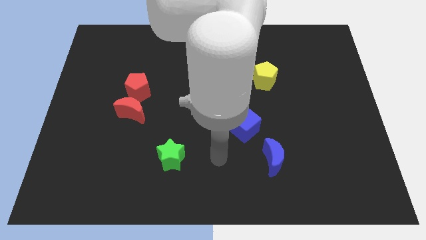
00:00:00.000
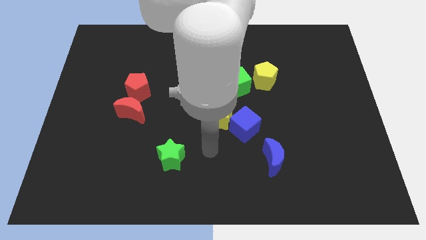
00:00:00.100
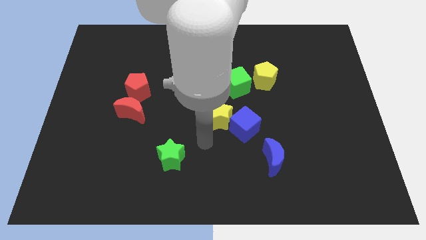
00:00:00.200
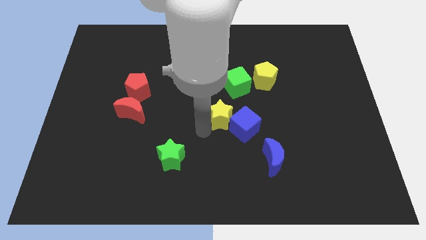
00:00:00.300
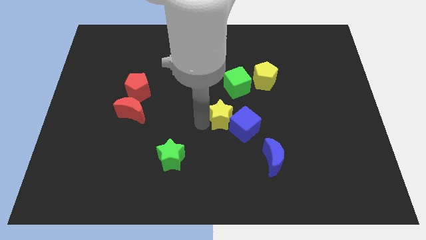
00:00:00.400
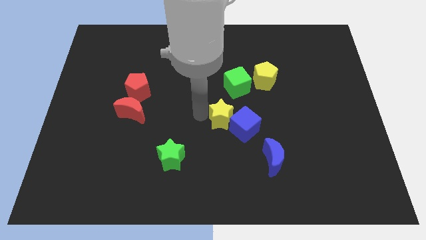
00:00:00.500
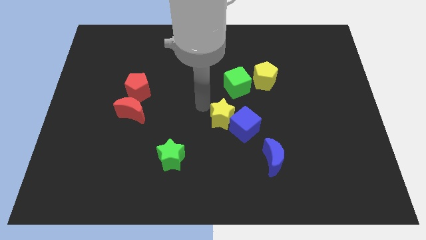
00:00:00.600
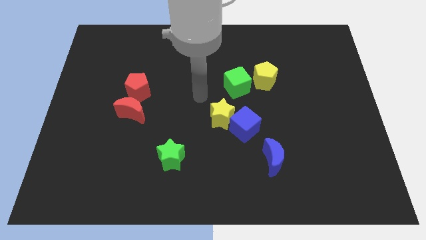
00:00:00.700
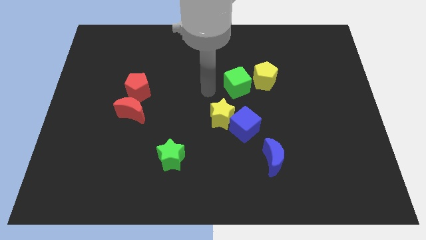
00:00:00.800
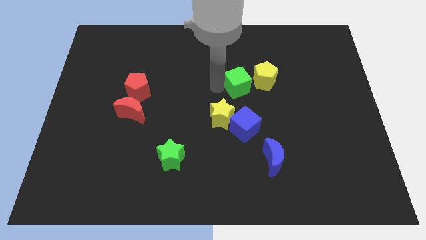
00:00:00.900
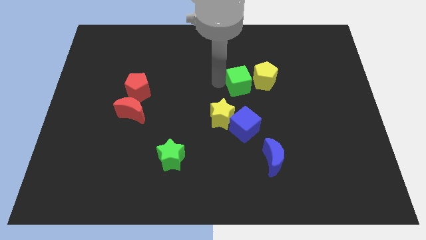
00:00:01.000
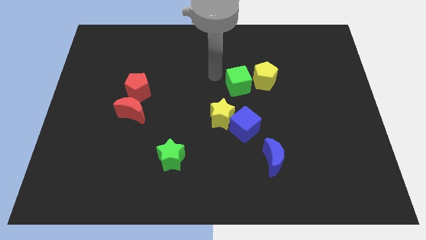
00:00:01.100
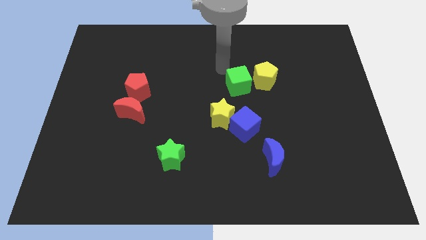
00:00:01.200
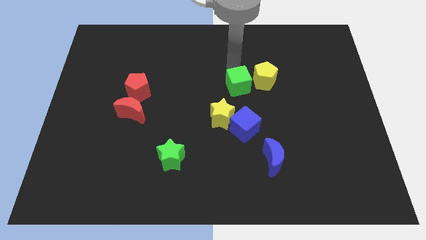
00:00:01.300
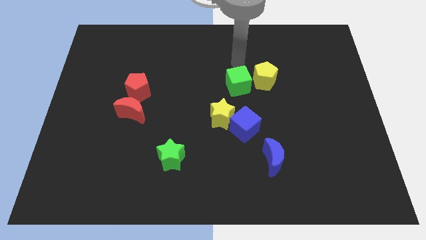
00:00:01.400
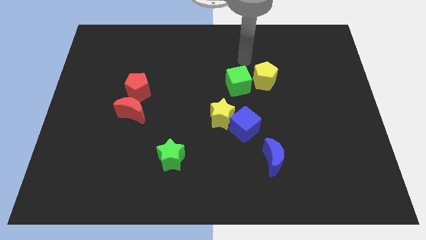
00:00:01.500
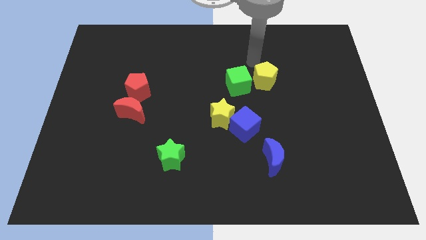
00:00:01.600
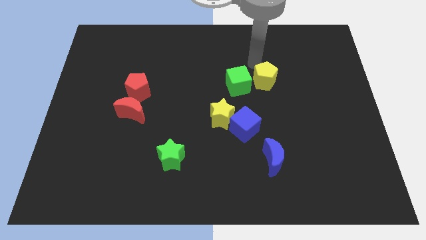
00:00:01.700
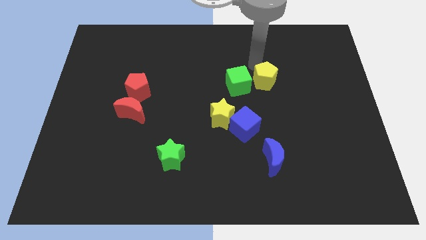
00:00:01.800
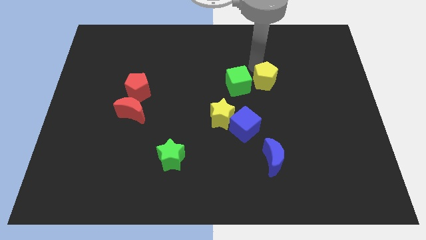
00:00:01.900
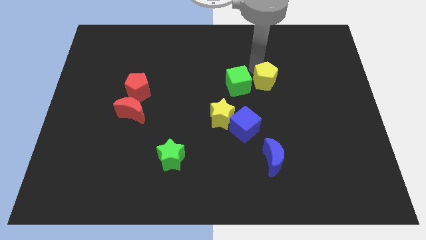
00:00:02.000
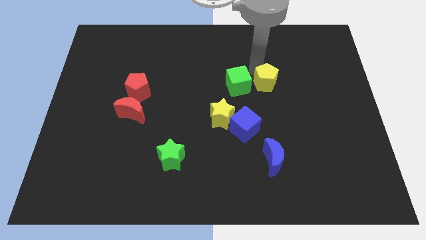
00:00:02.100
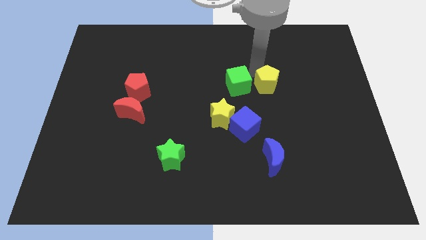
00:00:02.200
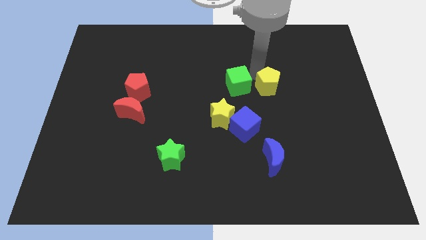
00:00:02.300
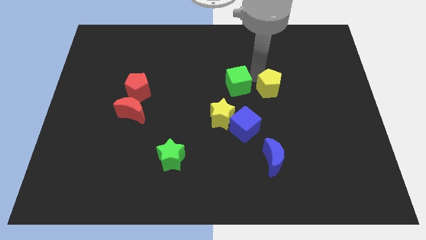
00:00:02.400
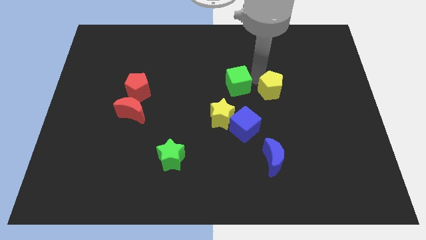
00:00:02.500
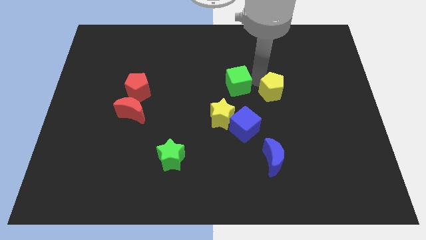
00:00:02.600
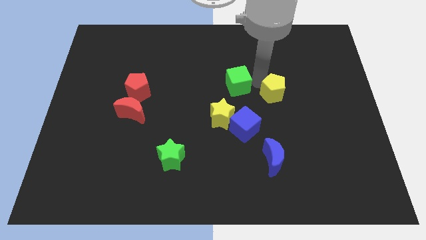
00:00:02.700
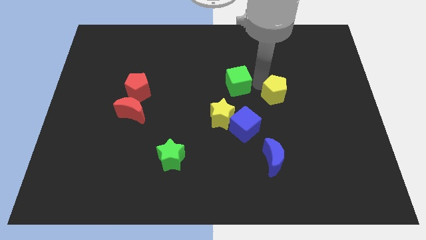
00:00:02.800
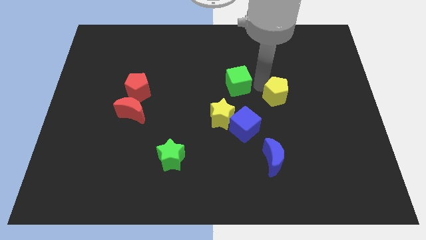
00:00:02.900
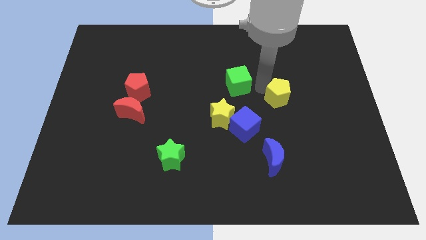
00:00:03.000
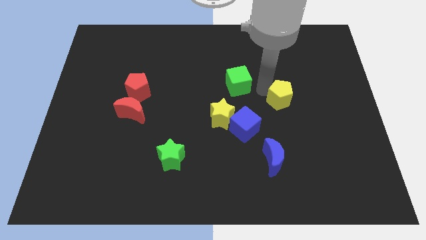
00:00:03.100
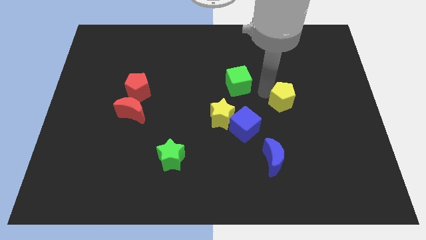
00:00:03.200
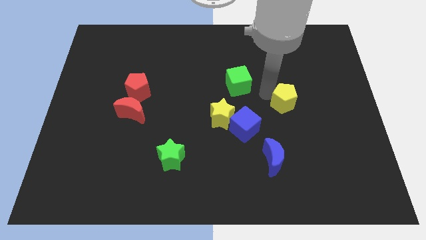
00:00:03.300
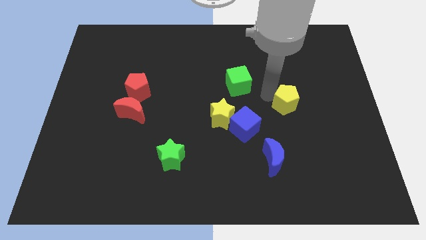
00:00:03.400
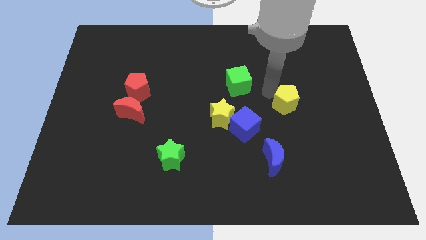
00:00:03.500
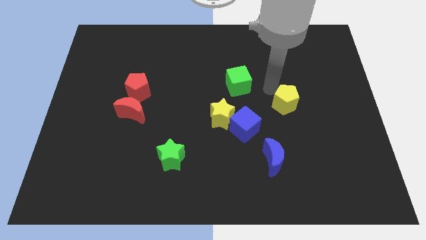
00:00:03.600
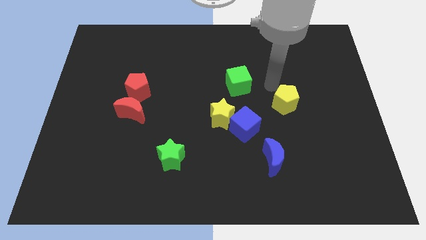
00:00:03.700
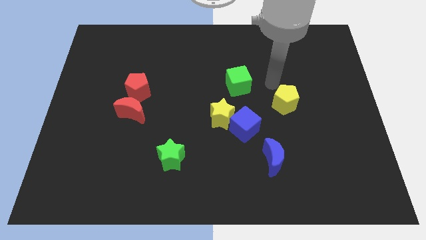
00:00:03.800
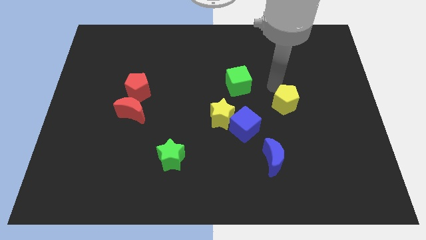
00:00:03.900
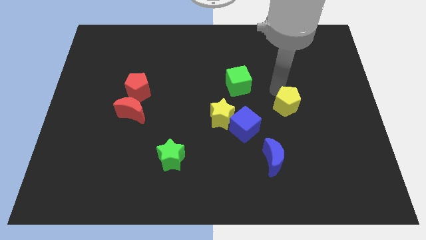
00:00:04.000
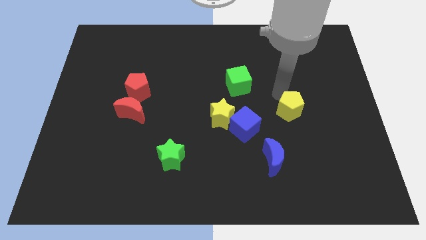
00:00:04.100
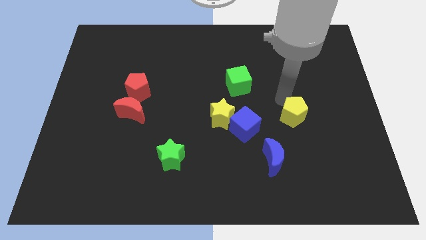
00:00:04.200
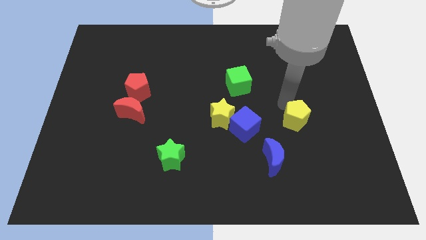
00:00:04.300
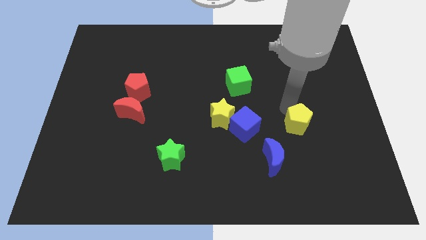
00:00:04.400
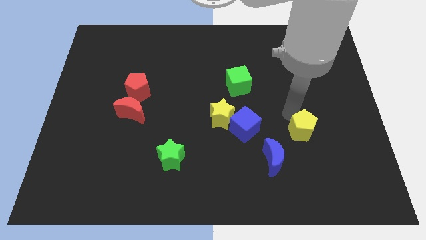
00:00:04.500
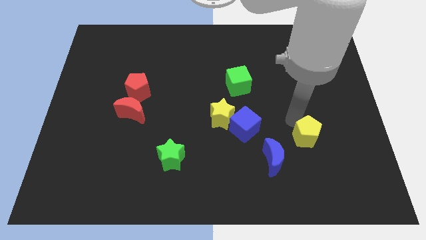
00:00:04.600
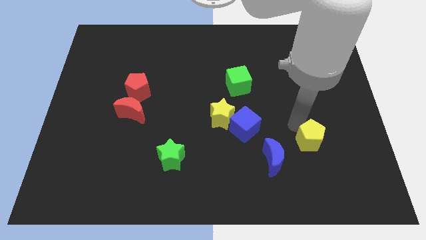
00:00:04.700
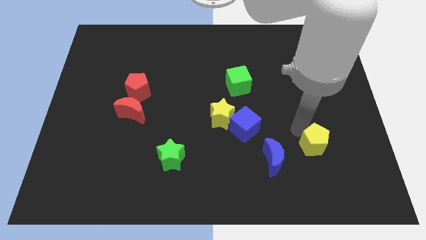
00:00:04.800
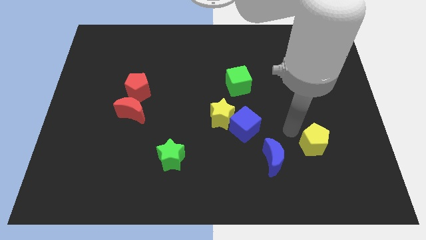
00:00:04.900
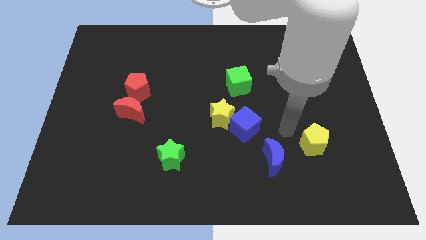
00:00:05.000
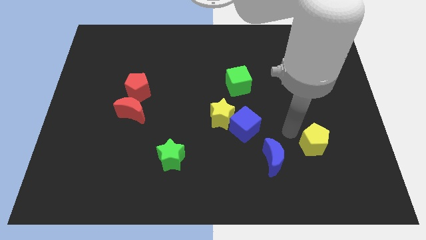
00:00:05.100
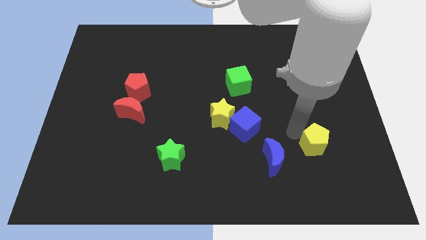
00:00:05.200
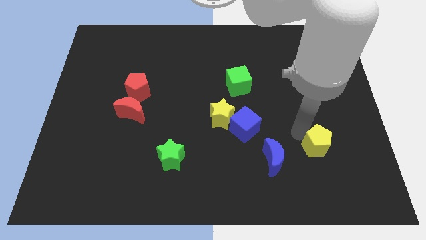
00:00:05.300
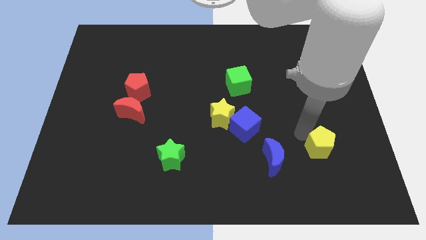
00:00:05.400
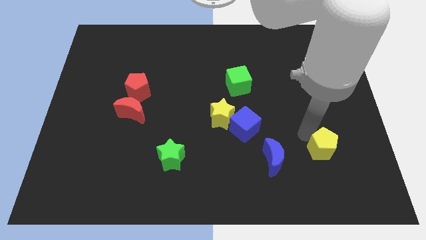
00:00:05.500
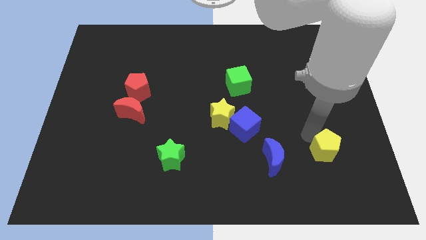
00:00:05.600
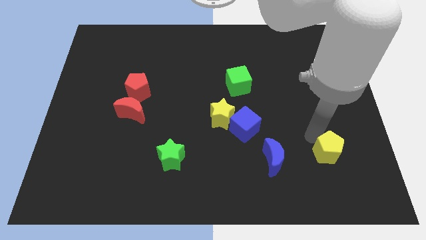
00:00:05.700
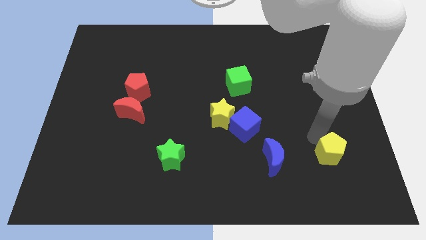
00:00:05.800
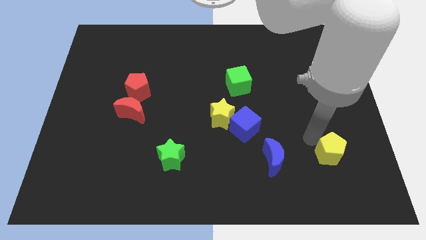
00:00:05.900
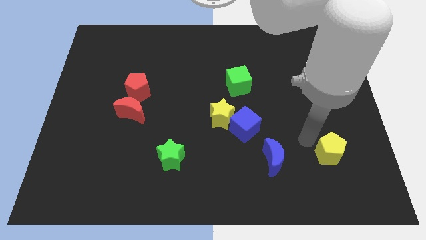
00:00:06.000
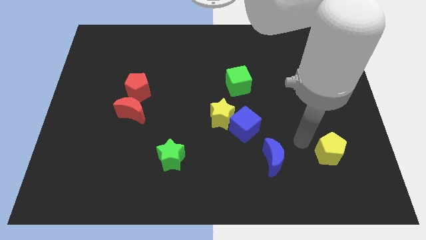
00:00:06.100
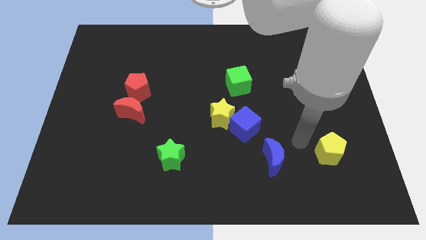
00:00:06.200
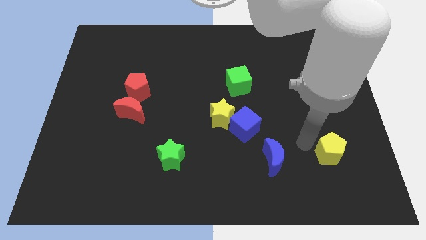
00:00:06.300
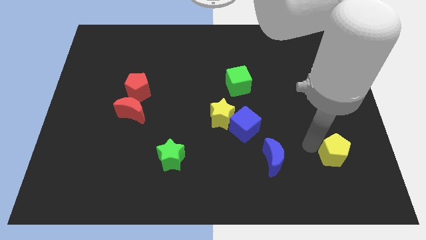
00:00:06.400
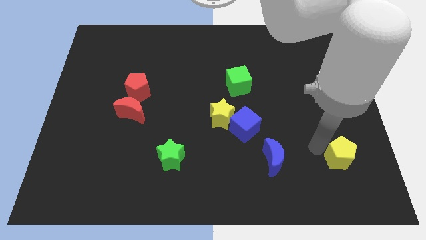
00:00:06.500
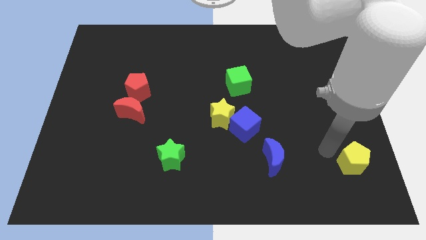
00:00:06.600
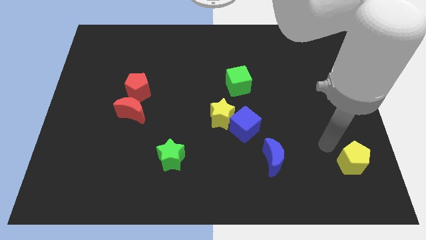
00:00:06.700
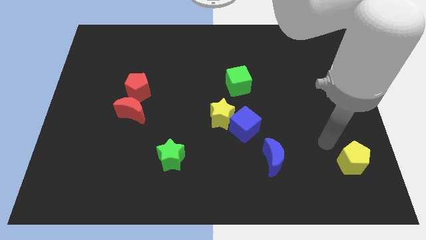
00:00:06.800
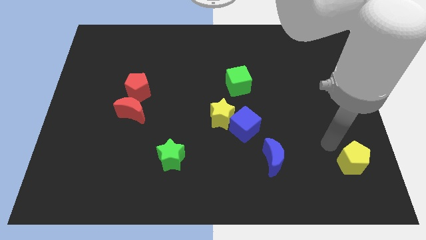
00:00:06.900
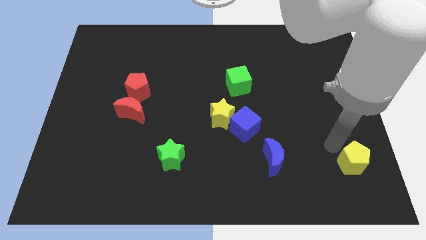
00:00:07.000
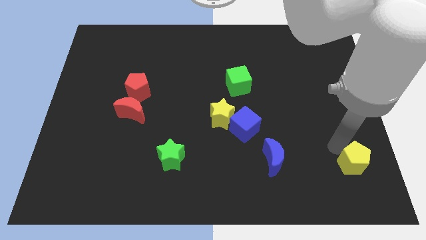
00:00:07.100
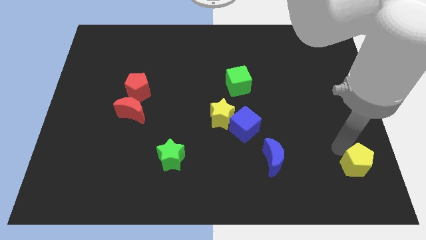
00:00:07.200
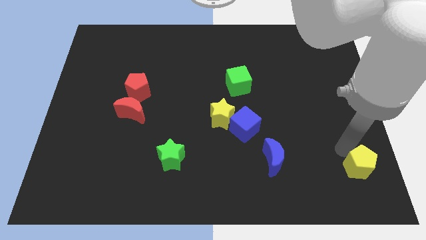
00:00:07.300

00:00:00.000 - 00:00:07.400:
put the yellow pentagon to the bottom right
